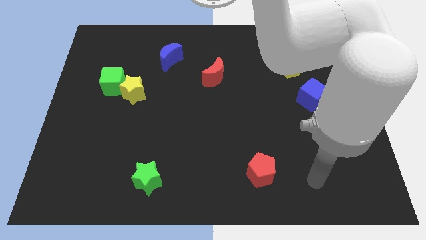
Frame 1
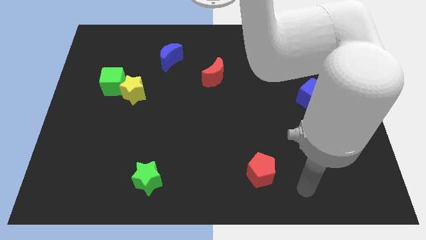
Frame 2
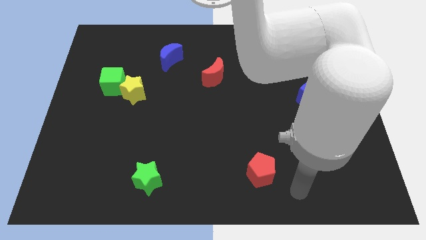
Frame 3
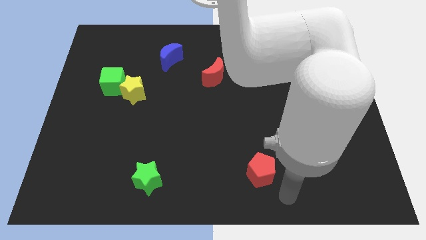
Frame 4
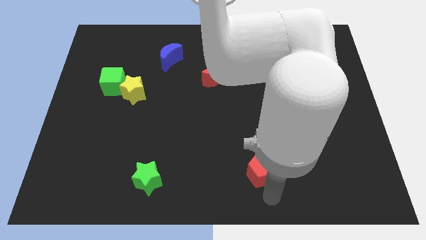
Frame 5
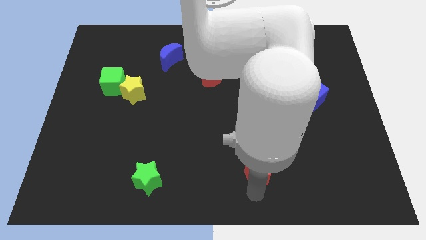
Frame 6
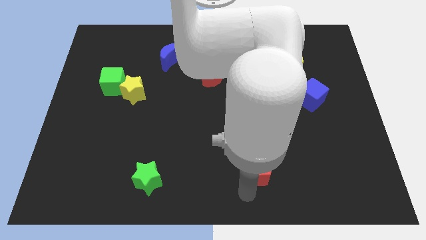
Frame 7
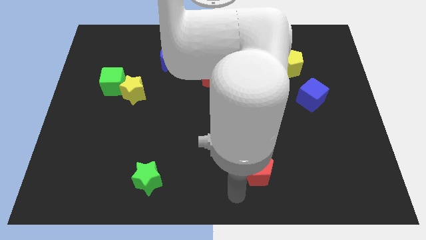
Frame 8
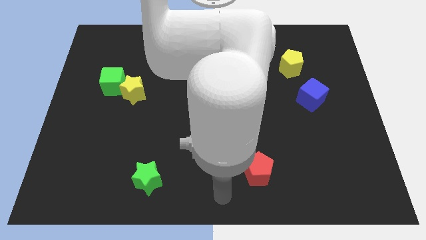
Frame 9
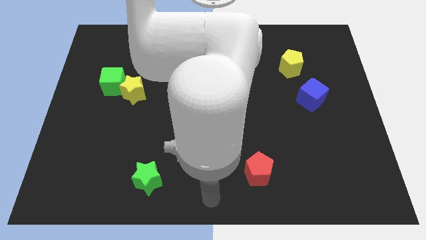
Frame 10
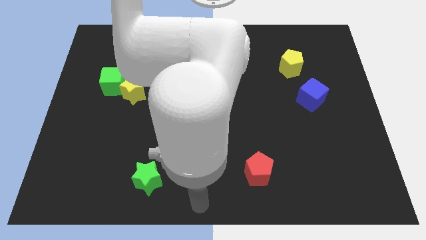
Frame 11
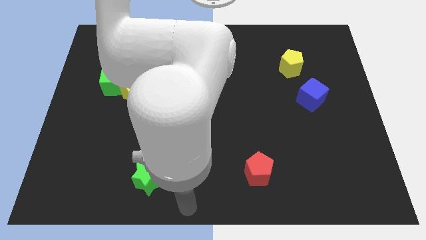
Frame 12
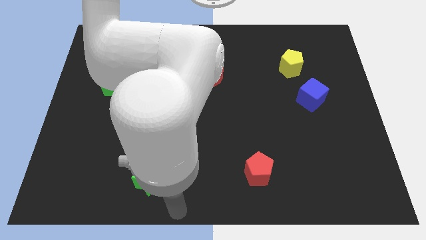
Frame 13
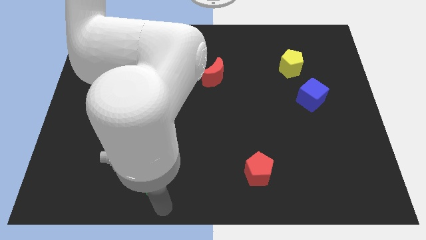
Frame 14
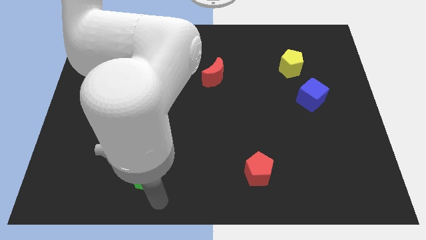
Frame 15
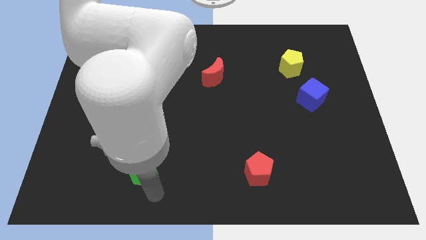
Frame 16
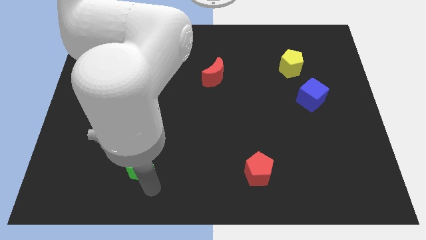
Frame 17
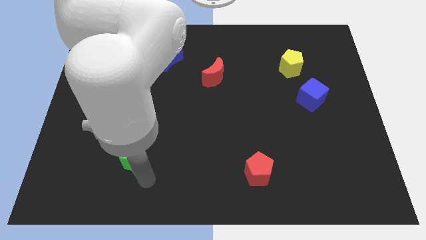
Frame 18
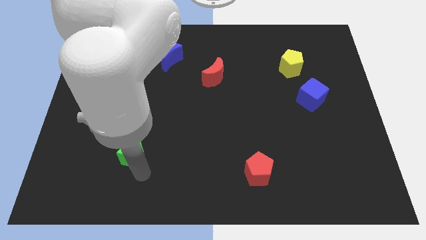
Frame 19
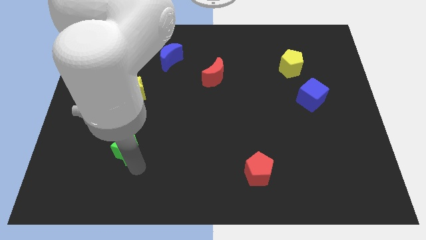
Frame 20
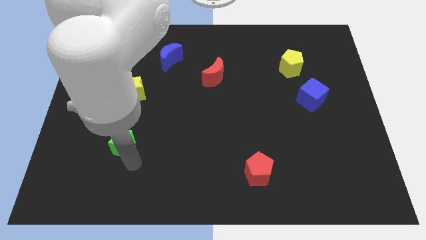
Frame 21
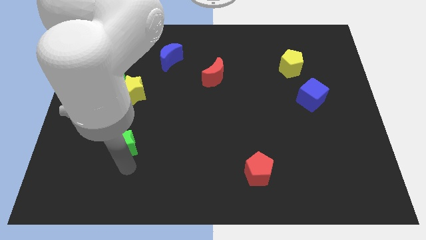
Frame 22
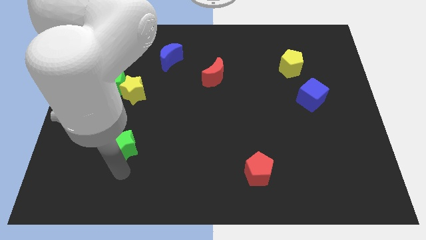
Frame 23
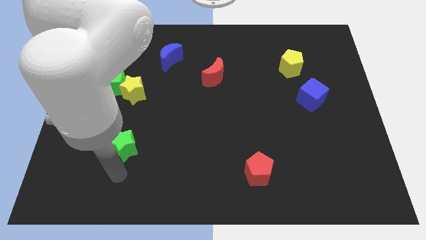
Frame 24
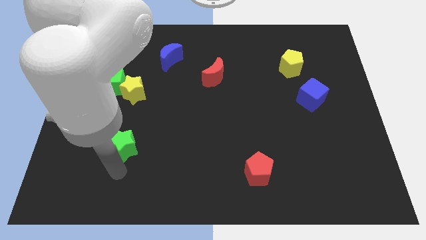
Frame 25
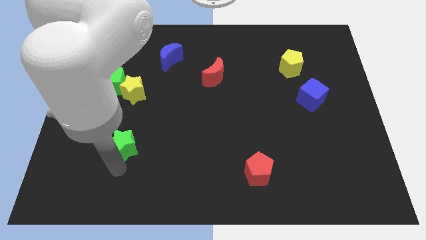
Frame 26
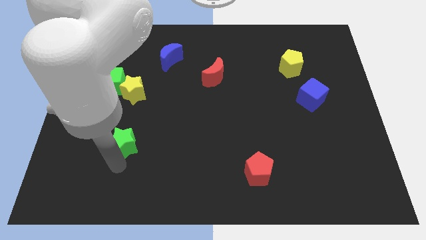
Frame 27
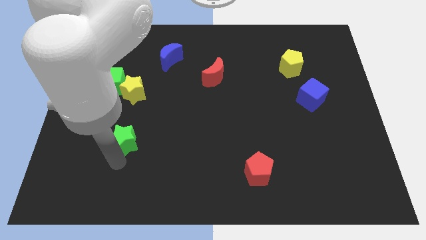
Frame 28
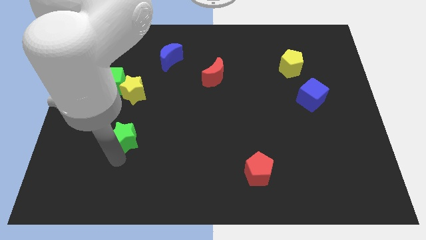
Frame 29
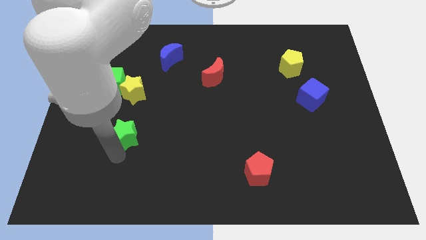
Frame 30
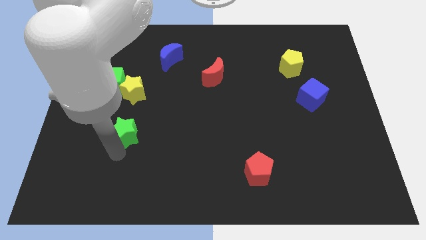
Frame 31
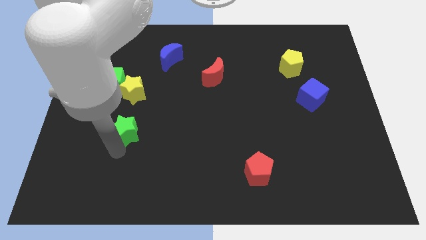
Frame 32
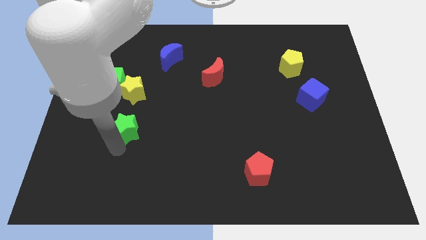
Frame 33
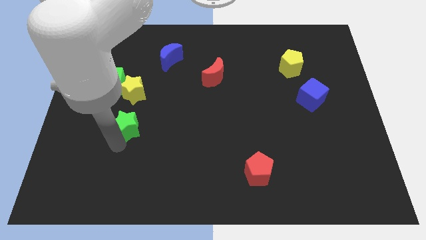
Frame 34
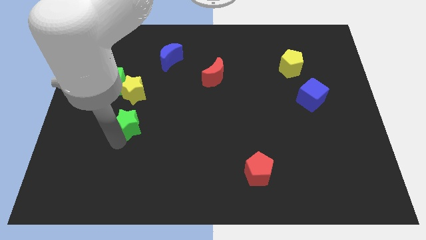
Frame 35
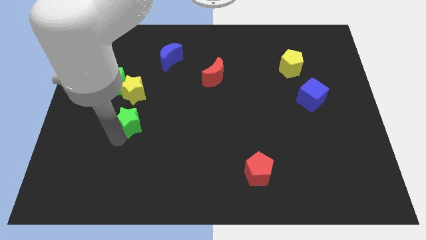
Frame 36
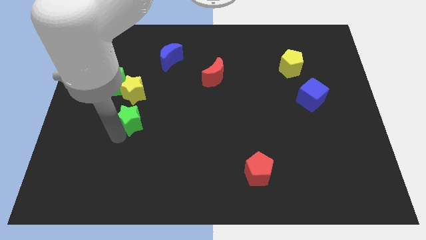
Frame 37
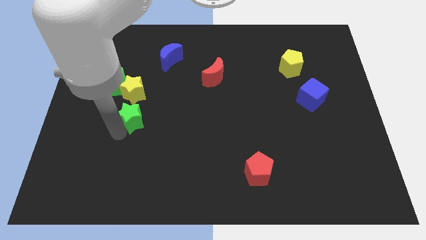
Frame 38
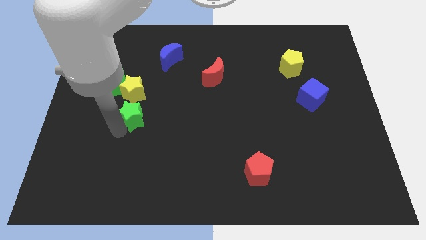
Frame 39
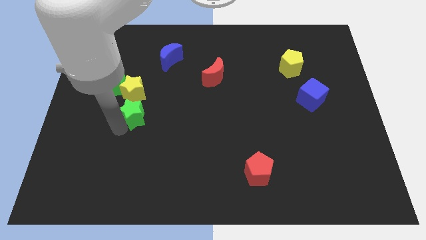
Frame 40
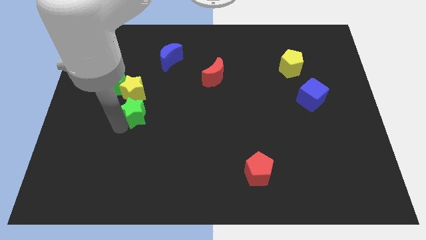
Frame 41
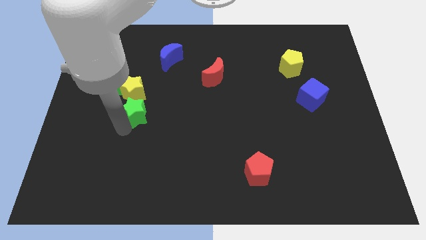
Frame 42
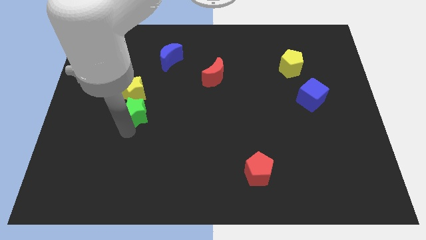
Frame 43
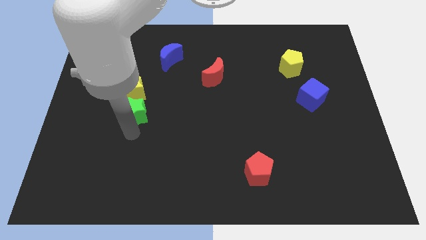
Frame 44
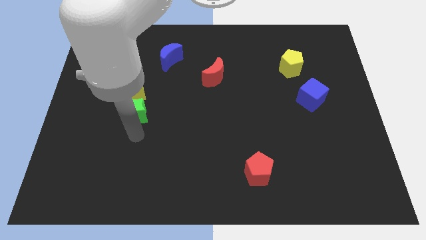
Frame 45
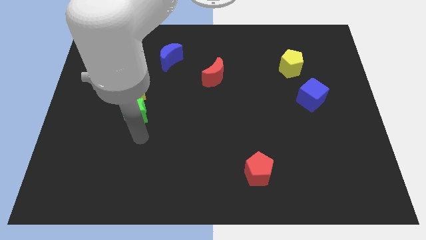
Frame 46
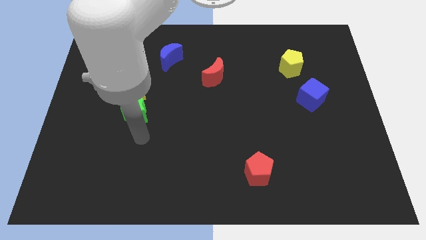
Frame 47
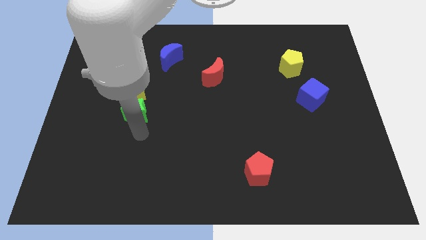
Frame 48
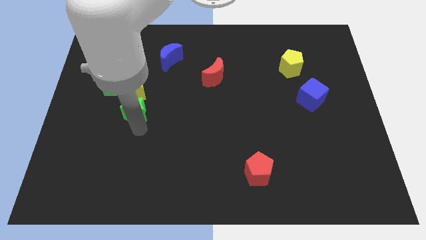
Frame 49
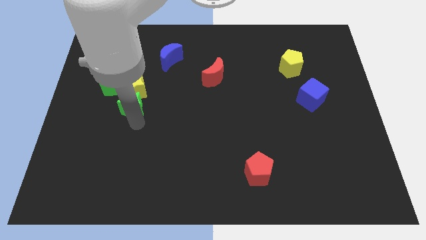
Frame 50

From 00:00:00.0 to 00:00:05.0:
slide the green star towards the yellow star

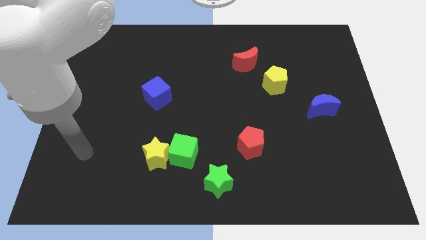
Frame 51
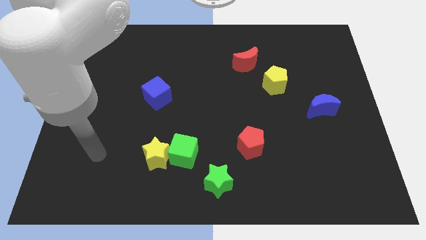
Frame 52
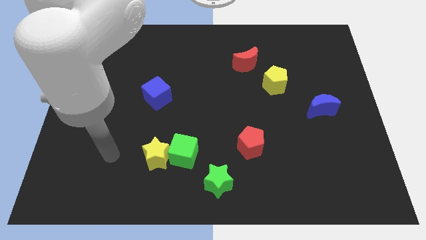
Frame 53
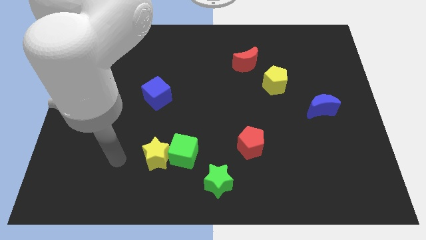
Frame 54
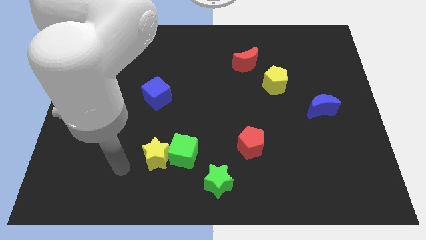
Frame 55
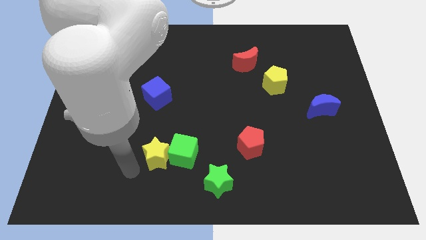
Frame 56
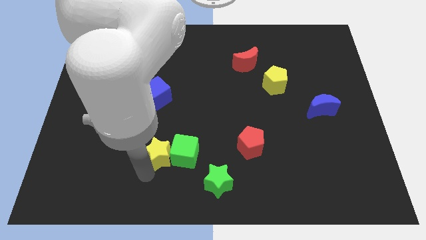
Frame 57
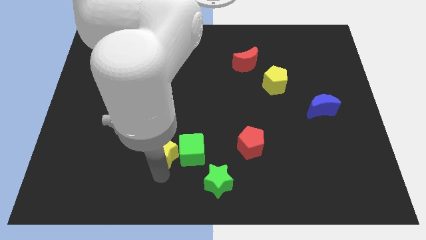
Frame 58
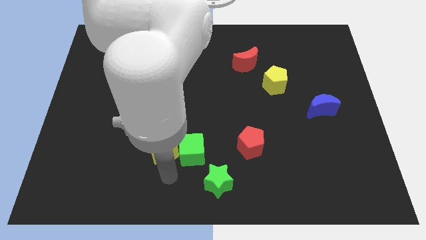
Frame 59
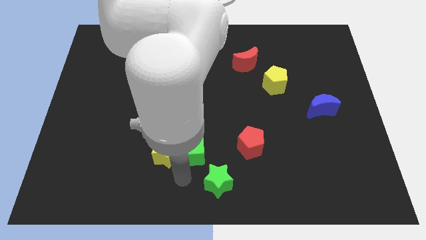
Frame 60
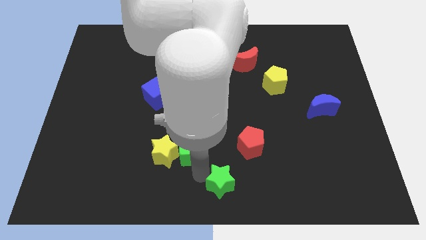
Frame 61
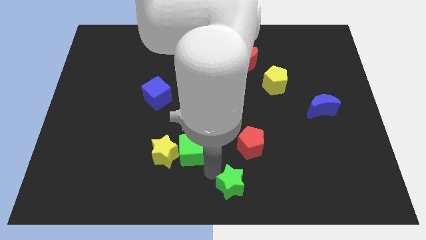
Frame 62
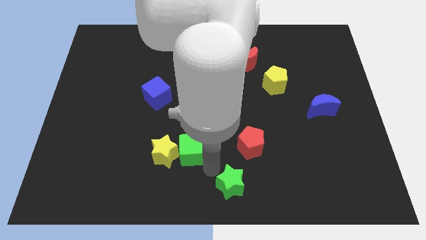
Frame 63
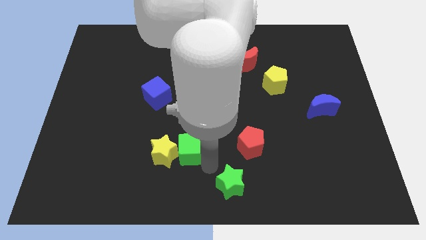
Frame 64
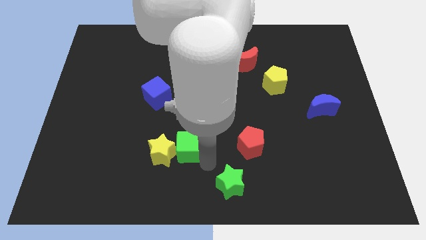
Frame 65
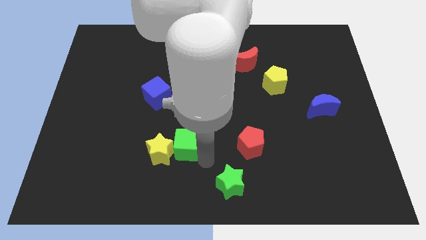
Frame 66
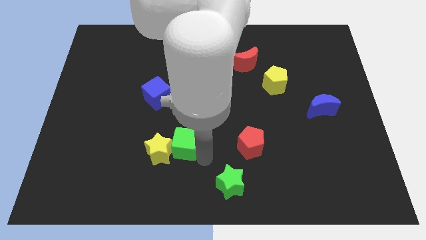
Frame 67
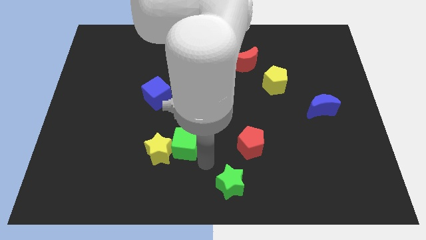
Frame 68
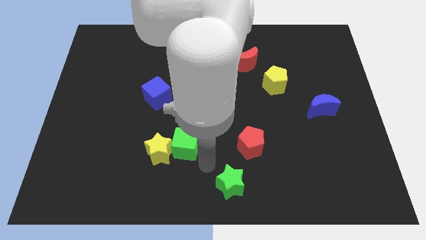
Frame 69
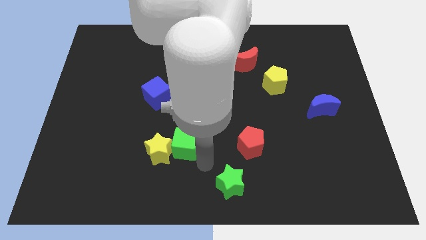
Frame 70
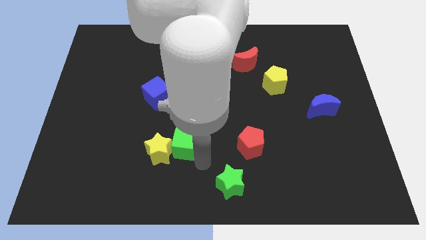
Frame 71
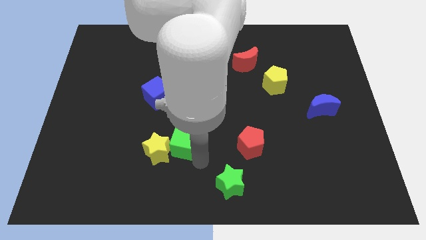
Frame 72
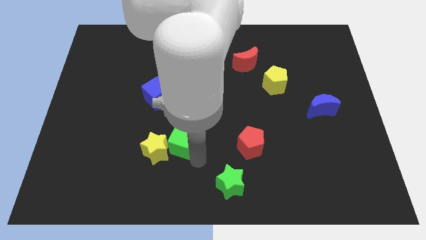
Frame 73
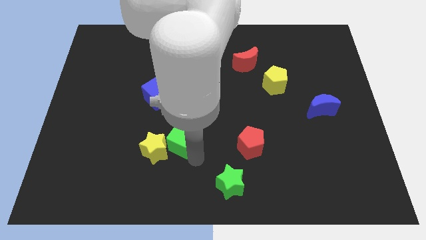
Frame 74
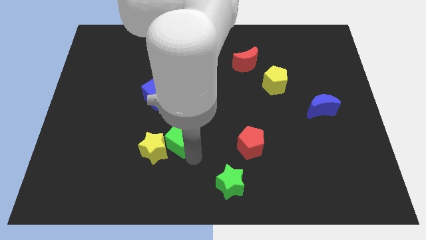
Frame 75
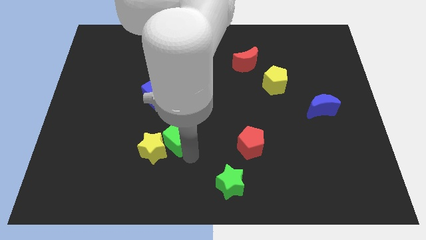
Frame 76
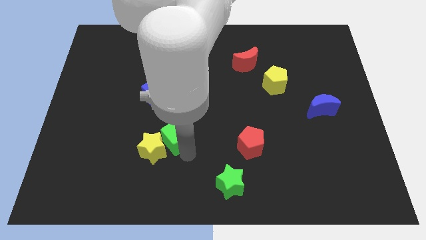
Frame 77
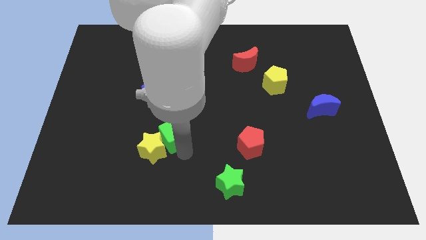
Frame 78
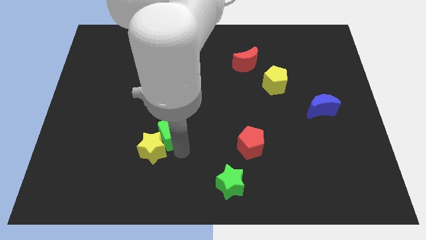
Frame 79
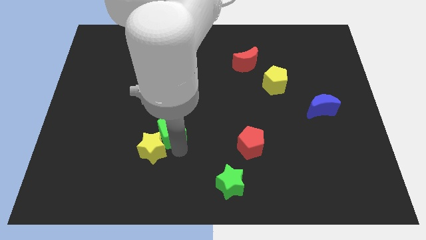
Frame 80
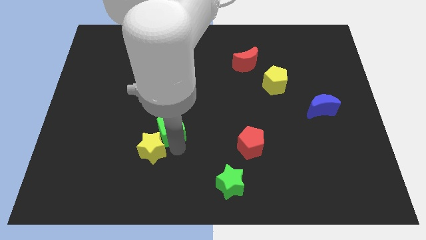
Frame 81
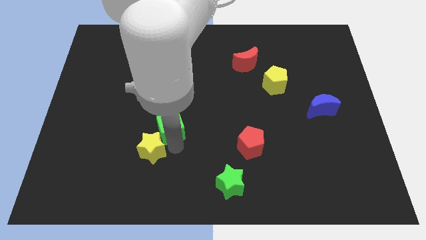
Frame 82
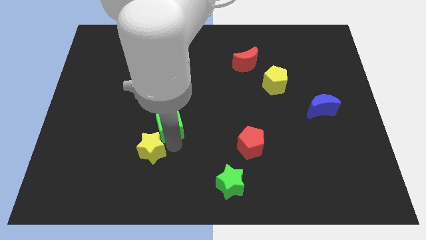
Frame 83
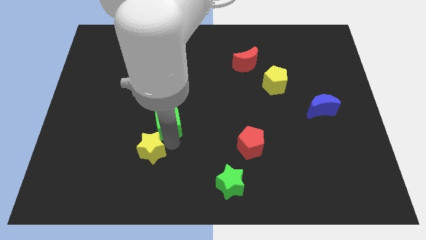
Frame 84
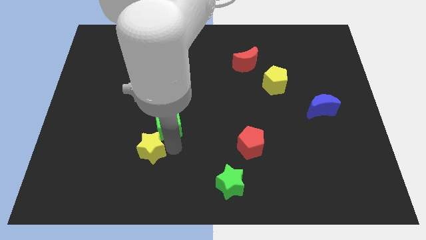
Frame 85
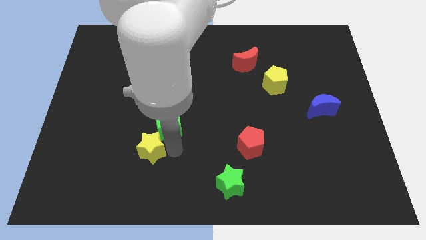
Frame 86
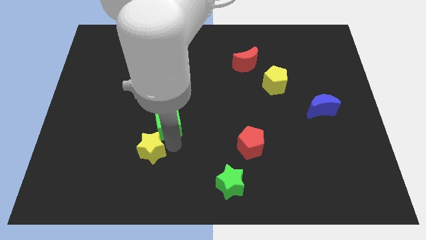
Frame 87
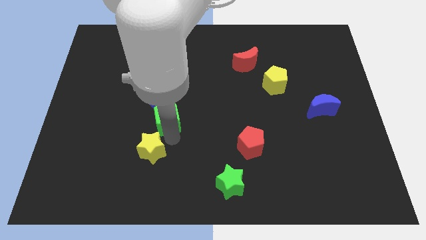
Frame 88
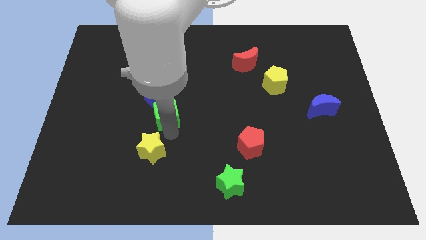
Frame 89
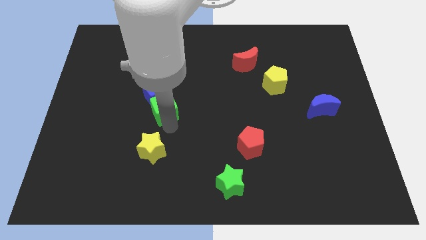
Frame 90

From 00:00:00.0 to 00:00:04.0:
put the green cube to the blue cube
